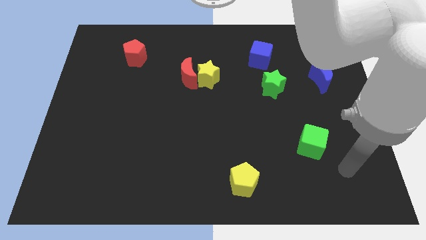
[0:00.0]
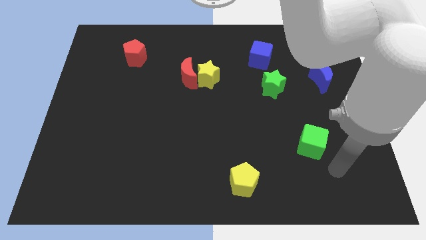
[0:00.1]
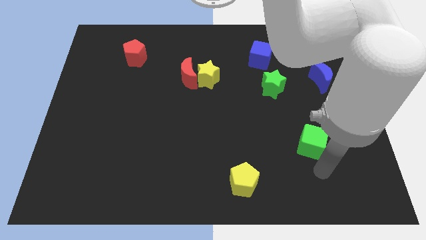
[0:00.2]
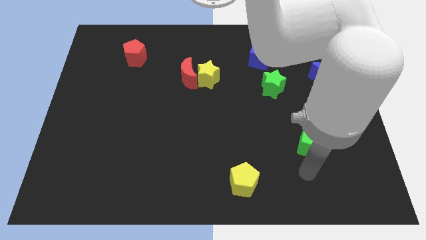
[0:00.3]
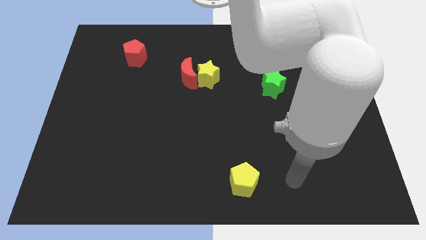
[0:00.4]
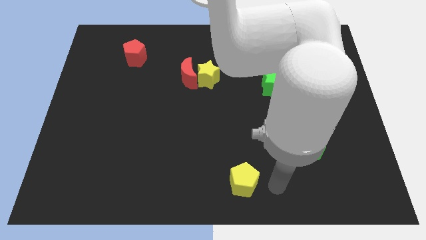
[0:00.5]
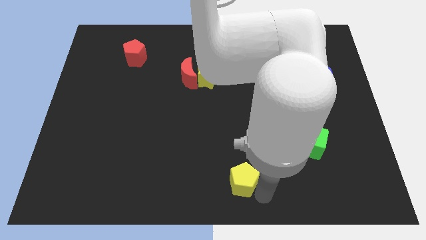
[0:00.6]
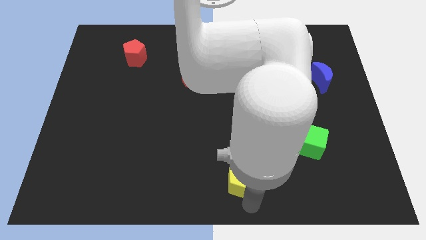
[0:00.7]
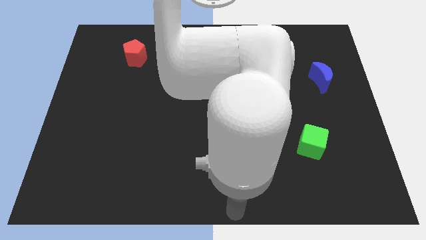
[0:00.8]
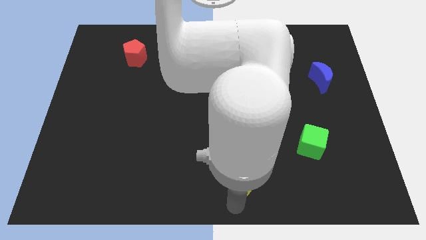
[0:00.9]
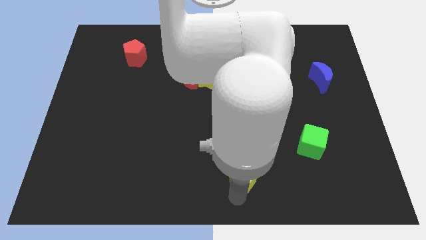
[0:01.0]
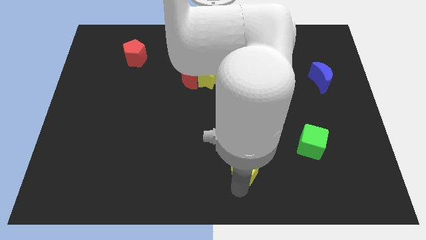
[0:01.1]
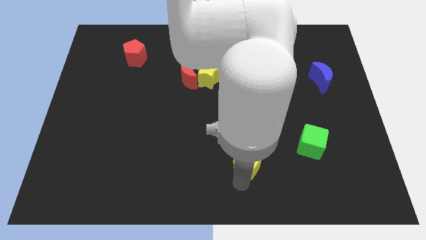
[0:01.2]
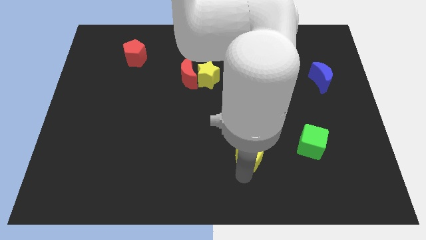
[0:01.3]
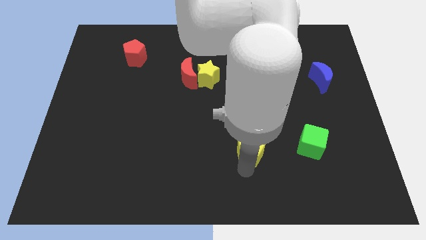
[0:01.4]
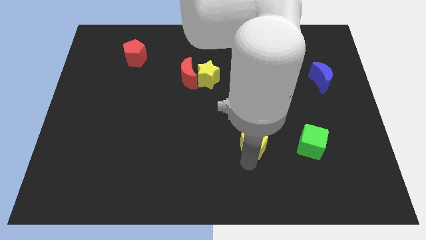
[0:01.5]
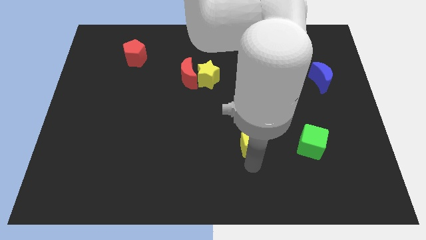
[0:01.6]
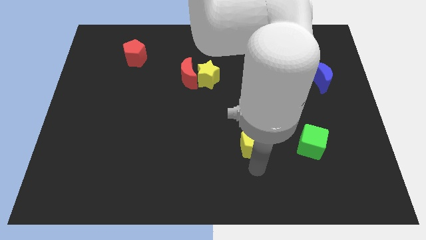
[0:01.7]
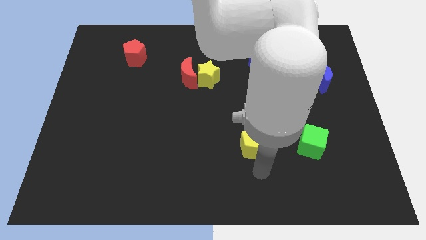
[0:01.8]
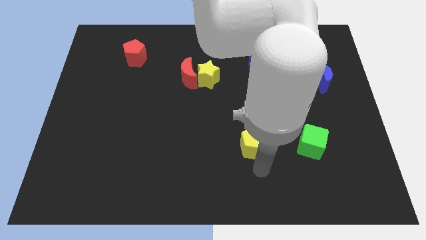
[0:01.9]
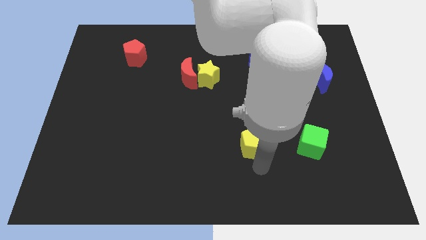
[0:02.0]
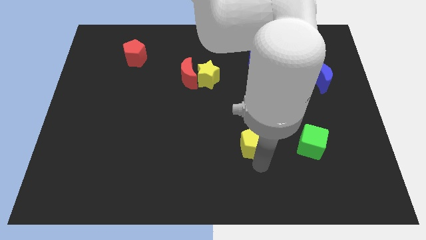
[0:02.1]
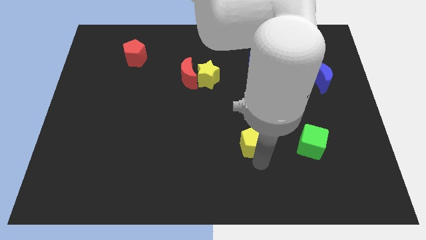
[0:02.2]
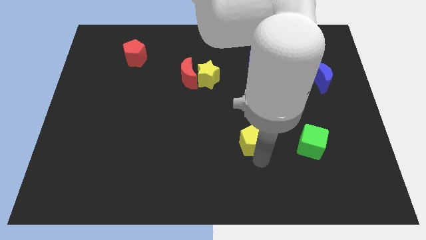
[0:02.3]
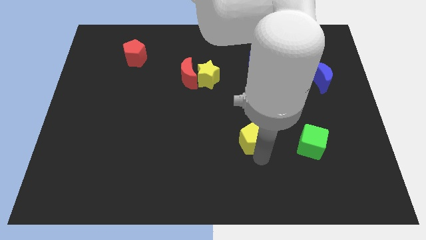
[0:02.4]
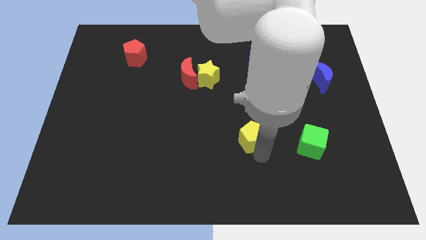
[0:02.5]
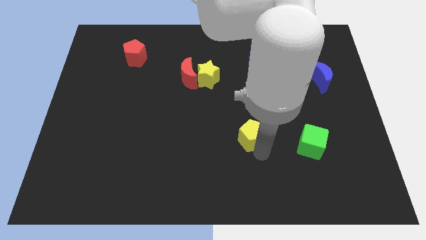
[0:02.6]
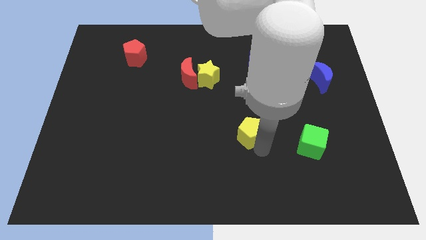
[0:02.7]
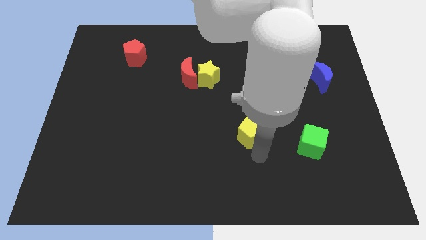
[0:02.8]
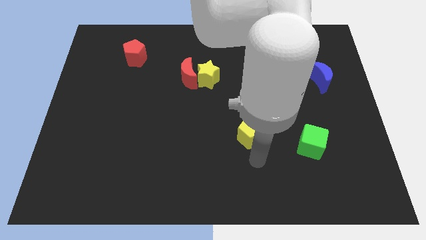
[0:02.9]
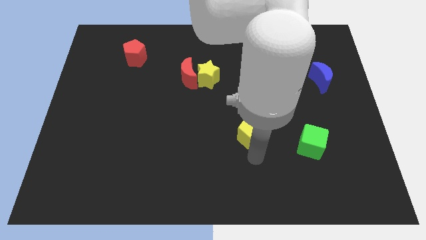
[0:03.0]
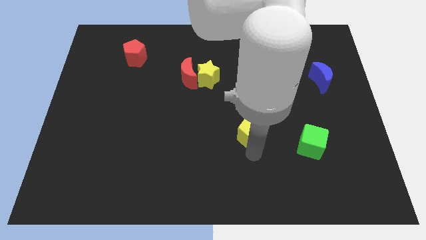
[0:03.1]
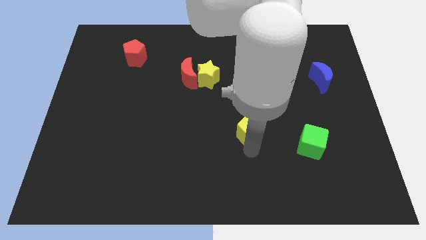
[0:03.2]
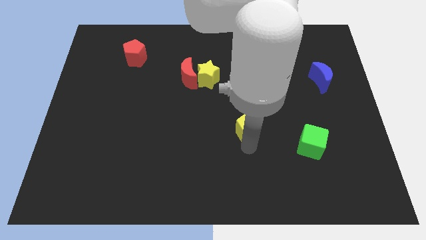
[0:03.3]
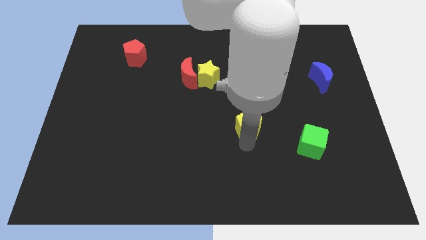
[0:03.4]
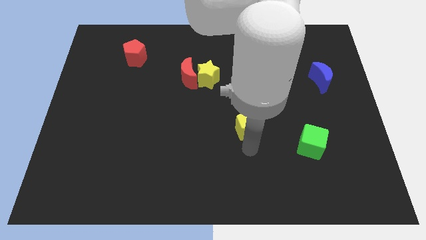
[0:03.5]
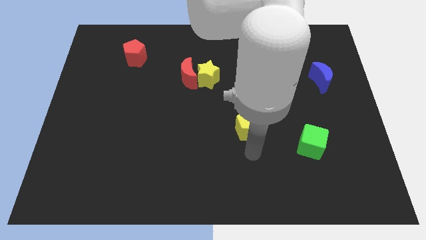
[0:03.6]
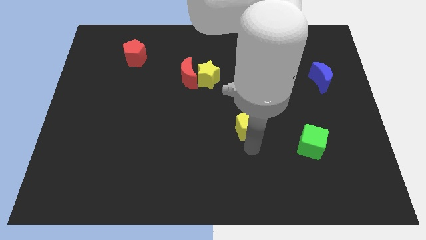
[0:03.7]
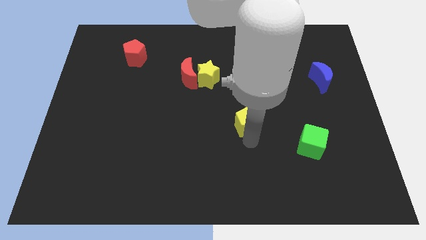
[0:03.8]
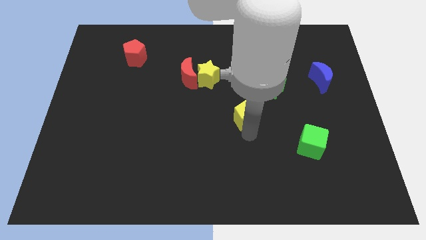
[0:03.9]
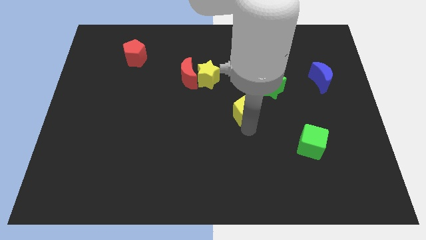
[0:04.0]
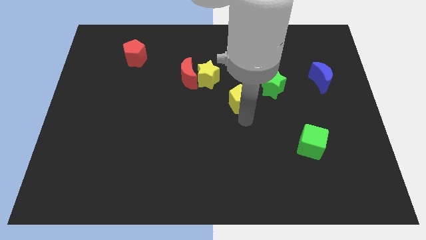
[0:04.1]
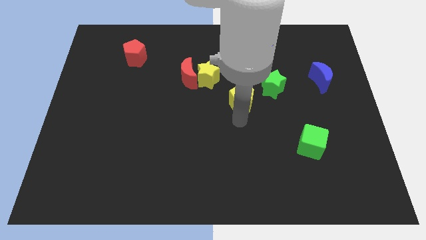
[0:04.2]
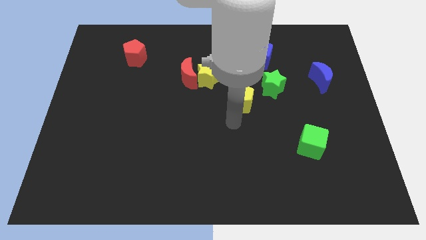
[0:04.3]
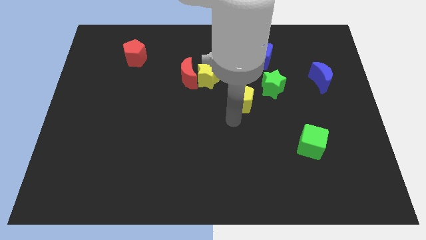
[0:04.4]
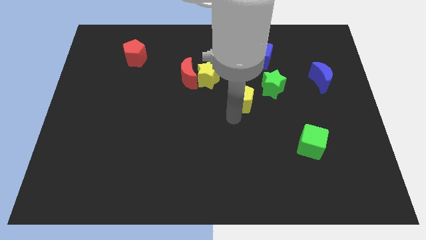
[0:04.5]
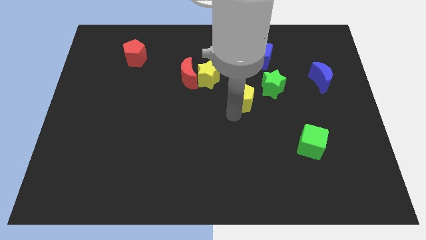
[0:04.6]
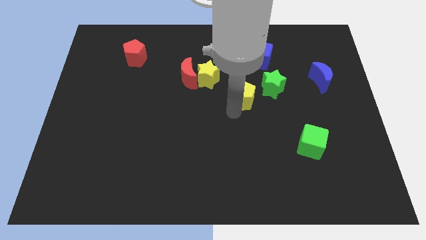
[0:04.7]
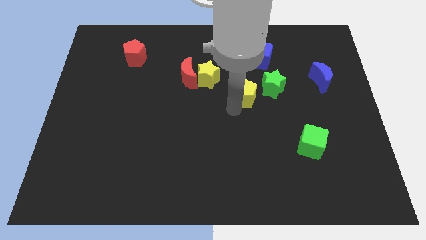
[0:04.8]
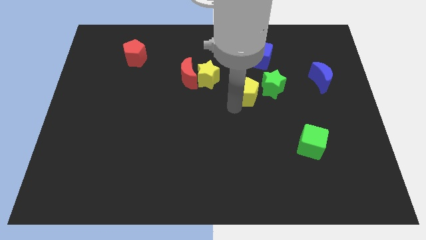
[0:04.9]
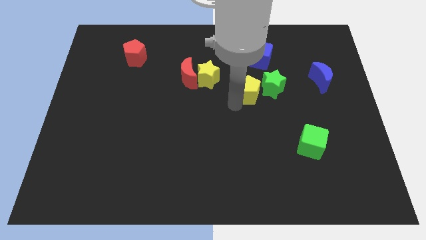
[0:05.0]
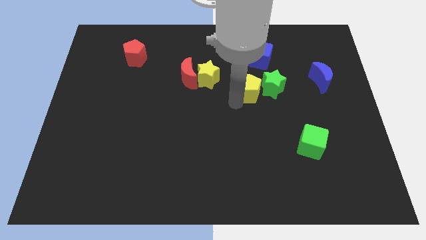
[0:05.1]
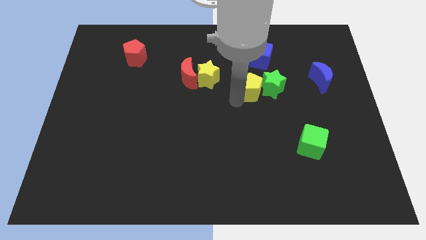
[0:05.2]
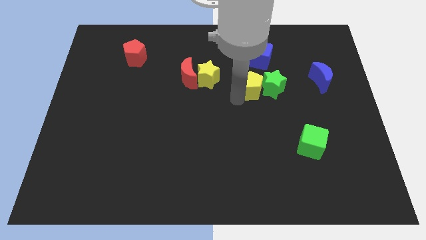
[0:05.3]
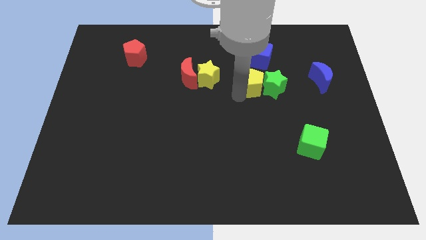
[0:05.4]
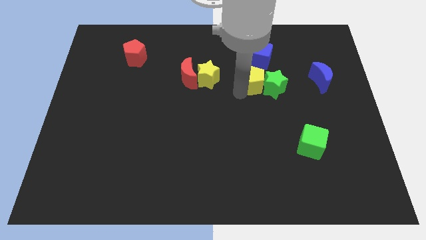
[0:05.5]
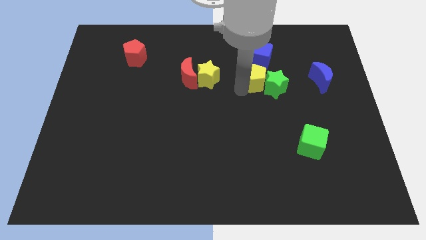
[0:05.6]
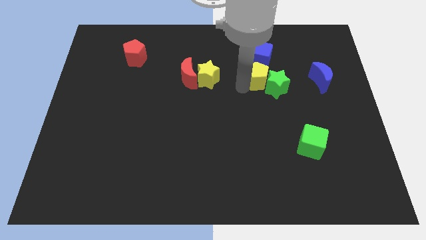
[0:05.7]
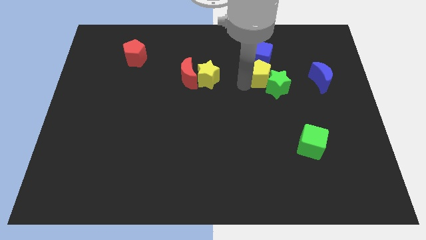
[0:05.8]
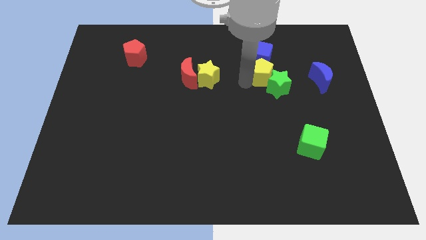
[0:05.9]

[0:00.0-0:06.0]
push the yellow pentagon to the blue cube

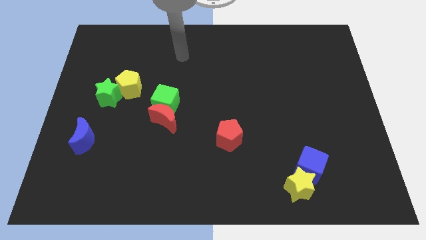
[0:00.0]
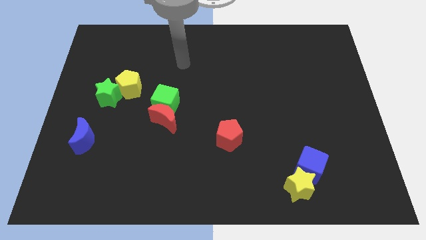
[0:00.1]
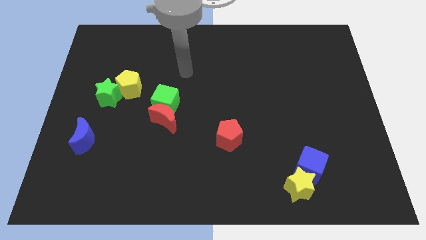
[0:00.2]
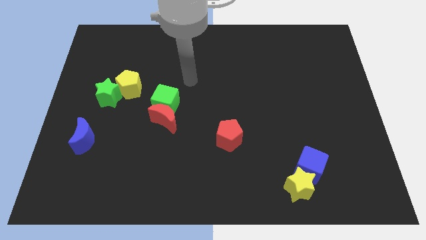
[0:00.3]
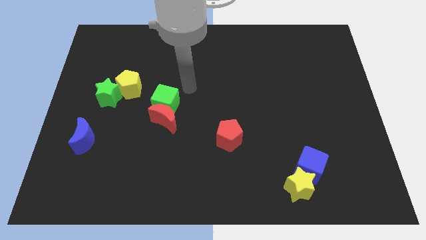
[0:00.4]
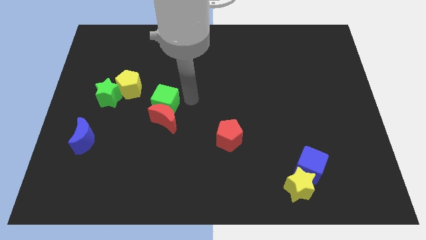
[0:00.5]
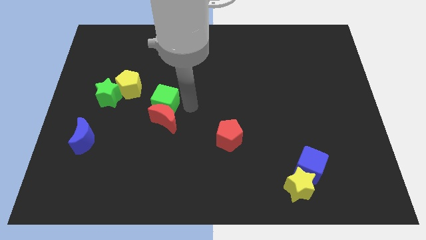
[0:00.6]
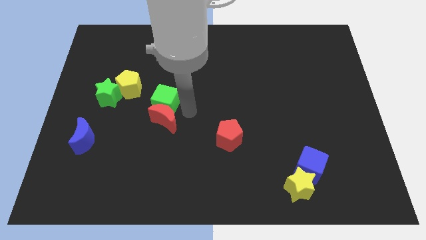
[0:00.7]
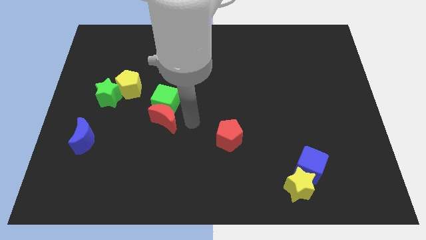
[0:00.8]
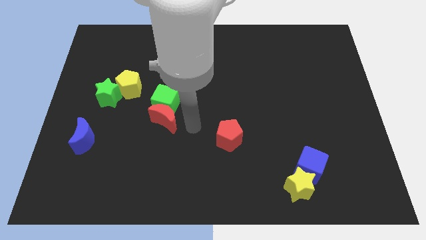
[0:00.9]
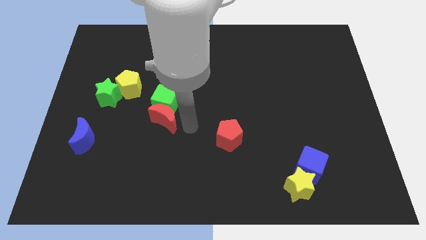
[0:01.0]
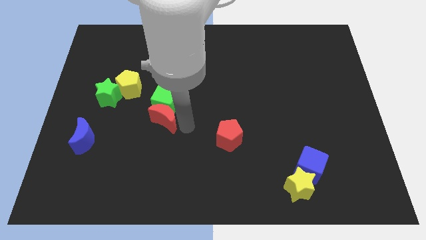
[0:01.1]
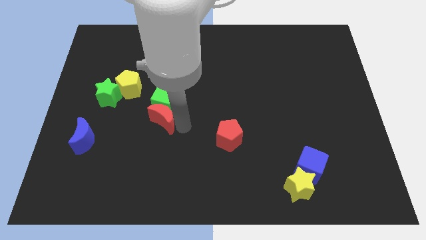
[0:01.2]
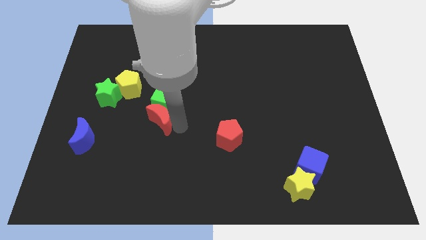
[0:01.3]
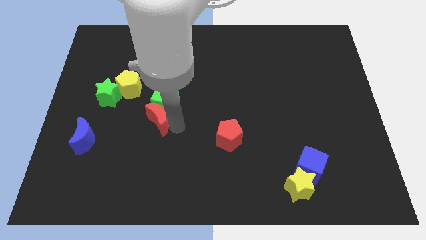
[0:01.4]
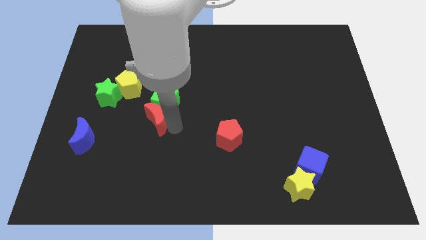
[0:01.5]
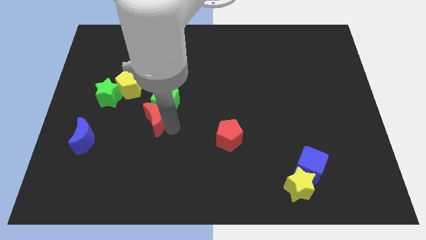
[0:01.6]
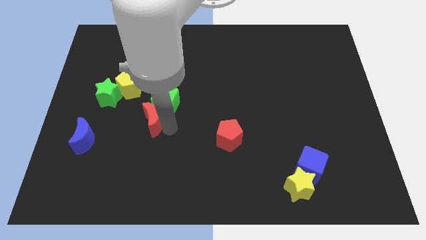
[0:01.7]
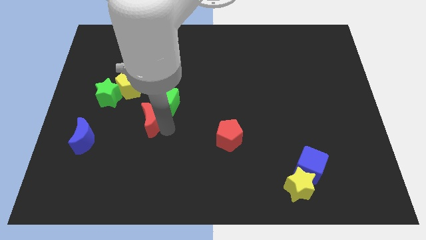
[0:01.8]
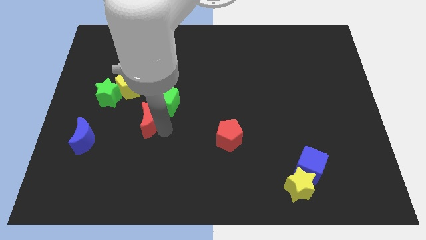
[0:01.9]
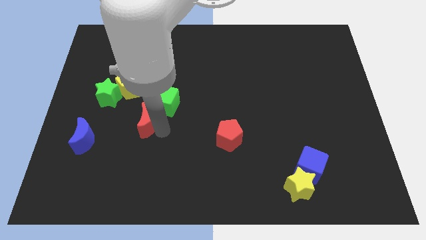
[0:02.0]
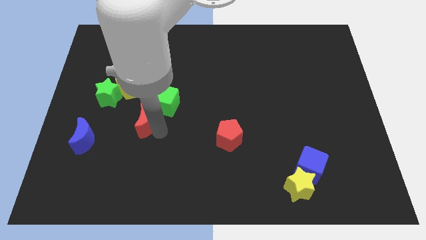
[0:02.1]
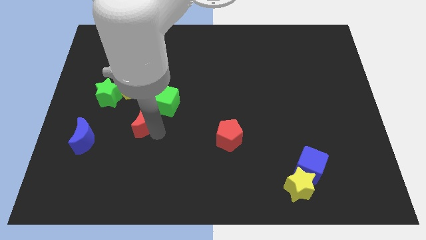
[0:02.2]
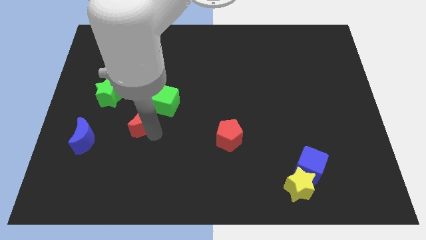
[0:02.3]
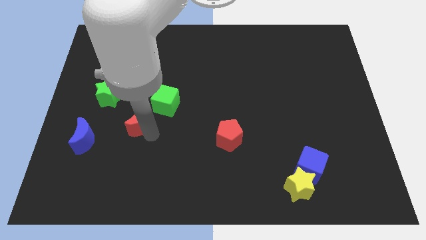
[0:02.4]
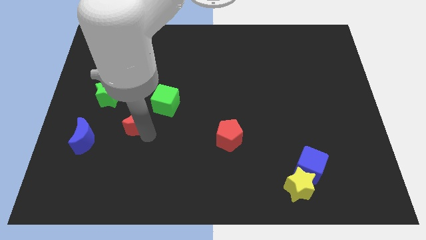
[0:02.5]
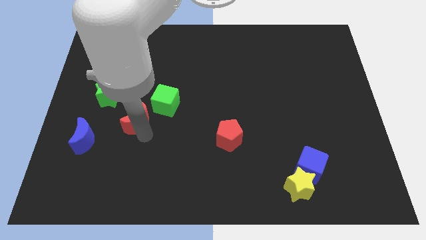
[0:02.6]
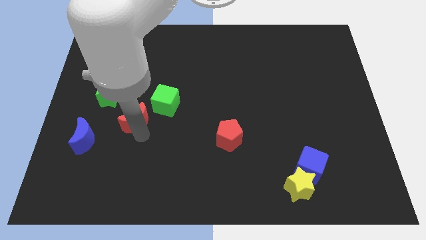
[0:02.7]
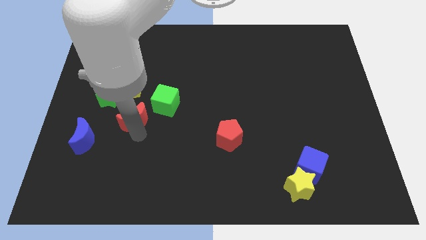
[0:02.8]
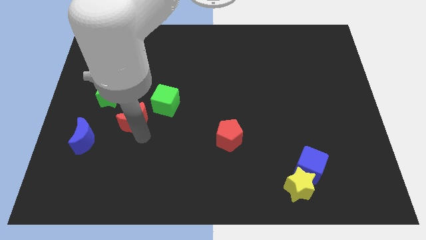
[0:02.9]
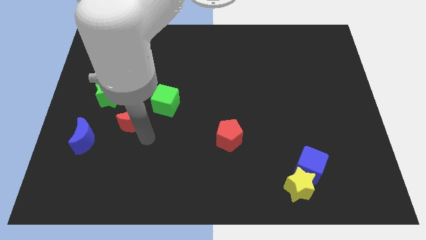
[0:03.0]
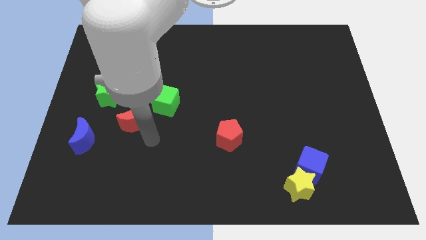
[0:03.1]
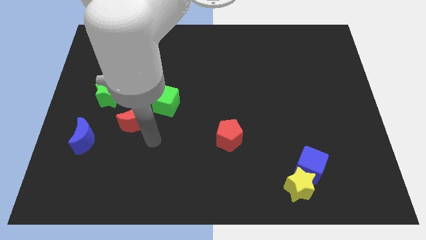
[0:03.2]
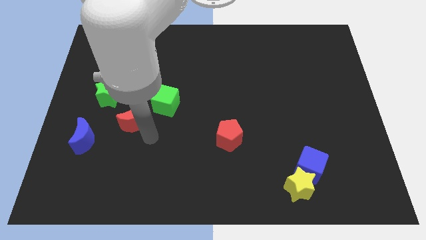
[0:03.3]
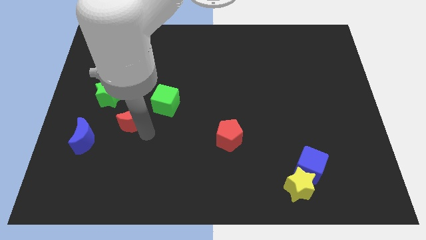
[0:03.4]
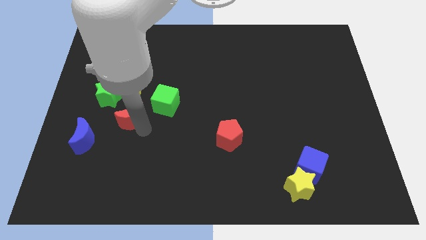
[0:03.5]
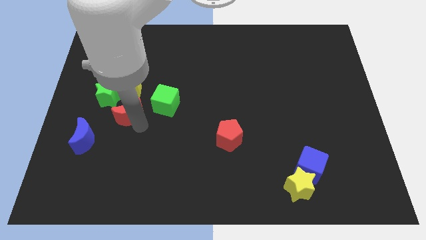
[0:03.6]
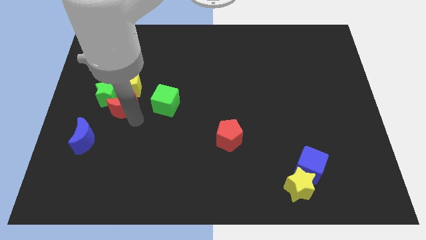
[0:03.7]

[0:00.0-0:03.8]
push the red moon towards the green star
